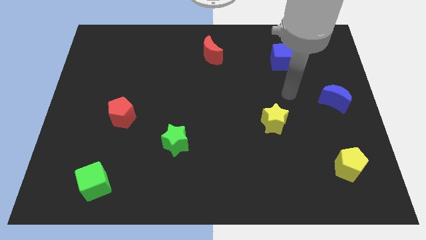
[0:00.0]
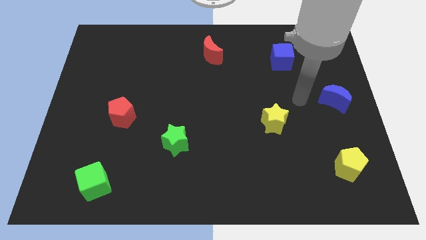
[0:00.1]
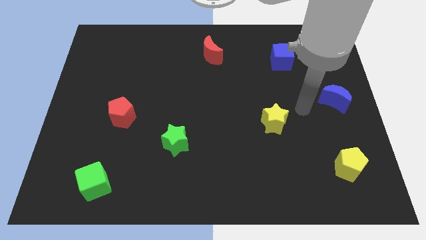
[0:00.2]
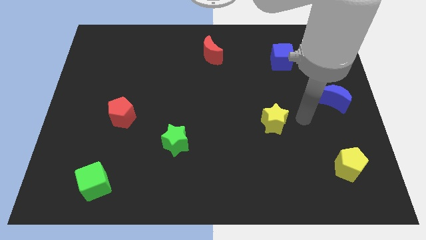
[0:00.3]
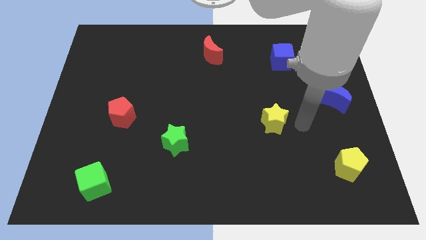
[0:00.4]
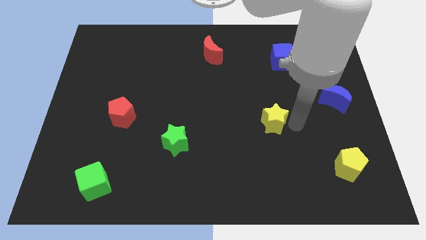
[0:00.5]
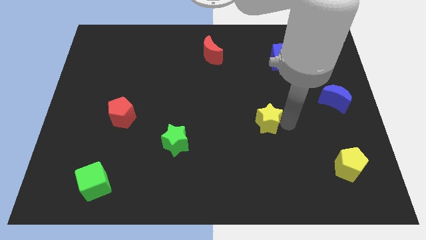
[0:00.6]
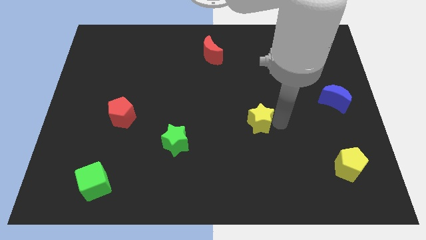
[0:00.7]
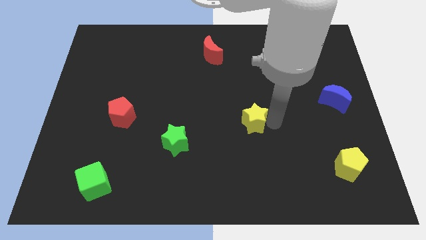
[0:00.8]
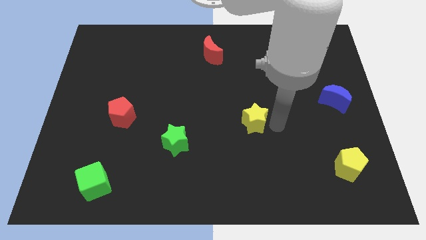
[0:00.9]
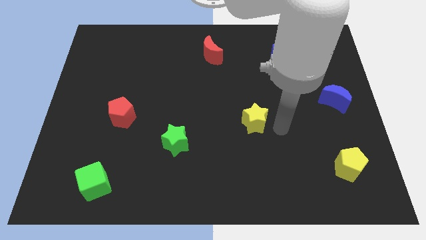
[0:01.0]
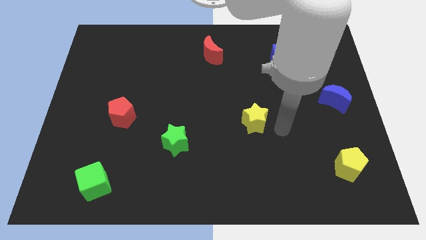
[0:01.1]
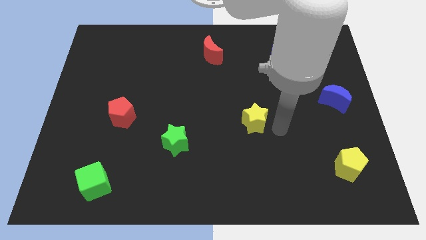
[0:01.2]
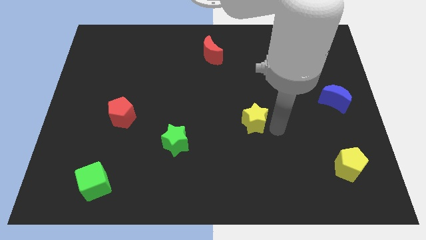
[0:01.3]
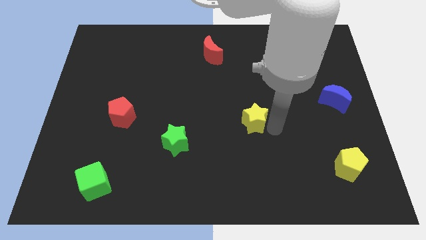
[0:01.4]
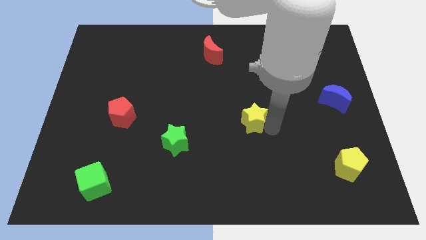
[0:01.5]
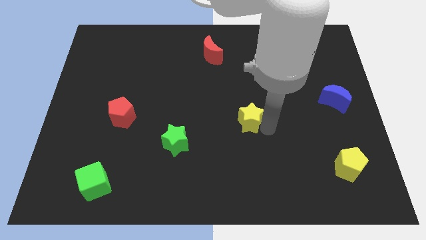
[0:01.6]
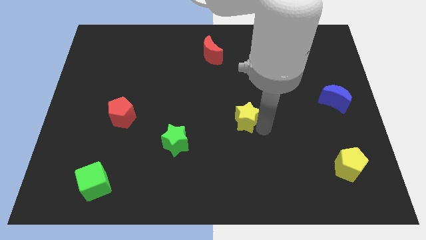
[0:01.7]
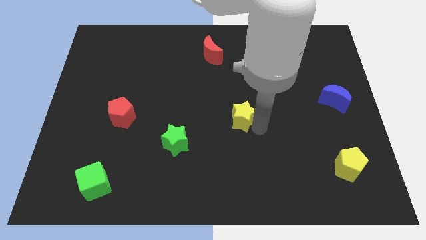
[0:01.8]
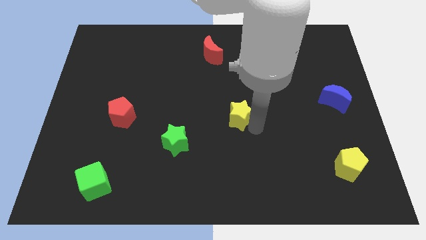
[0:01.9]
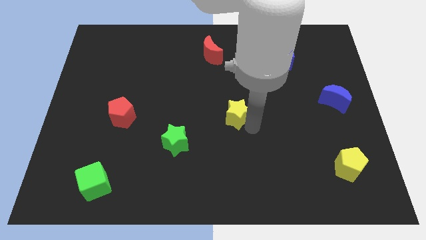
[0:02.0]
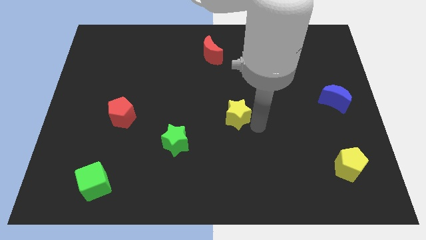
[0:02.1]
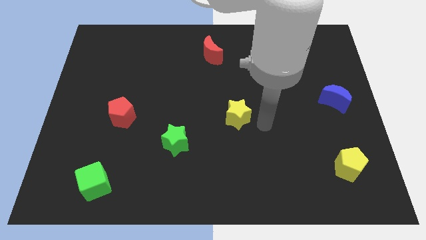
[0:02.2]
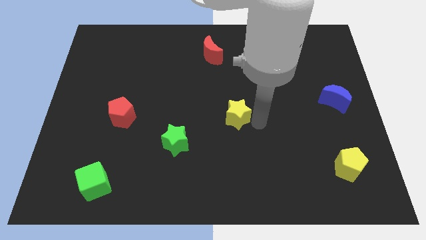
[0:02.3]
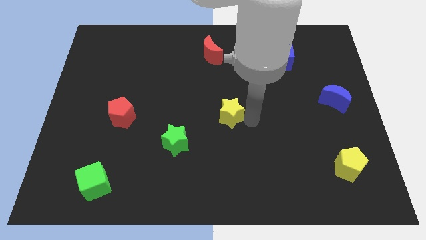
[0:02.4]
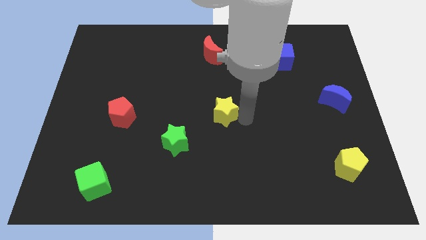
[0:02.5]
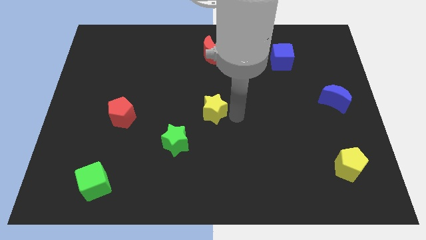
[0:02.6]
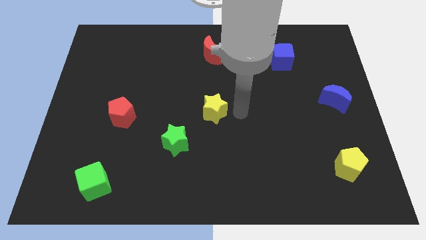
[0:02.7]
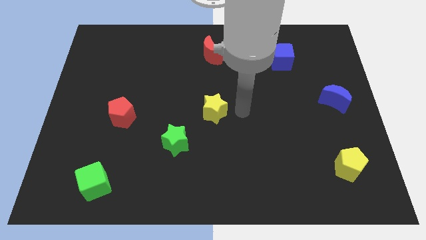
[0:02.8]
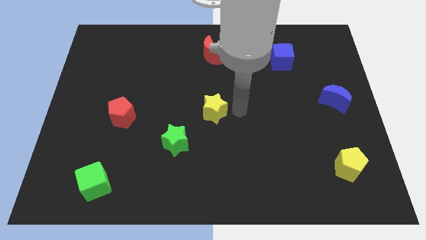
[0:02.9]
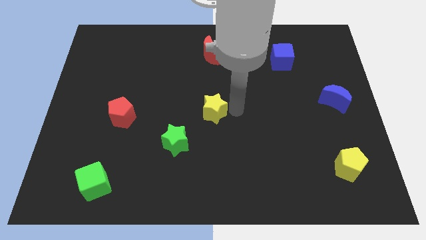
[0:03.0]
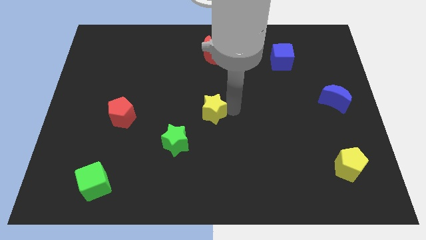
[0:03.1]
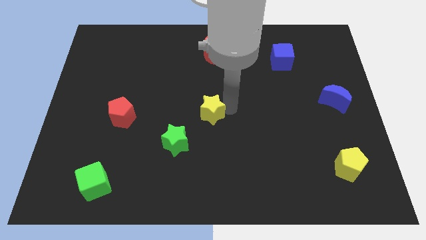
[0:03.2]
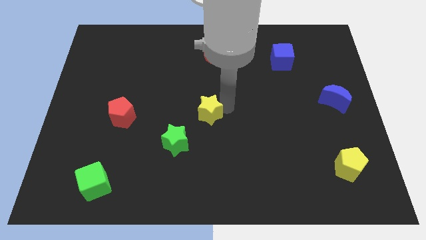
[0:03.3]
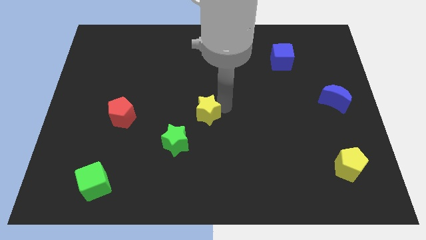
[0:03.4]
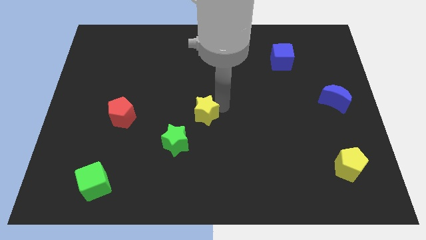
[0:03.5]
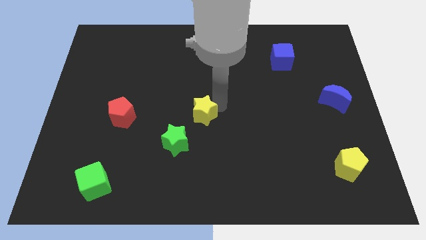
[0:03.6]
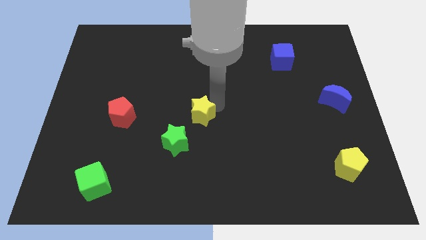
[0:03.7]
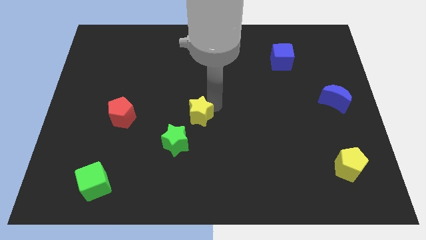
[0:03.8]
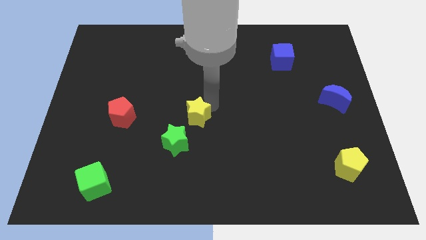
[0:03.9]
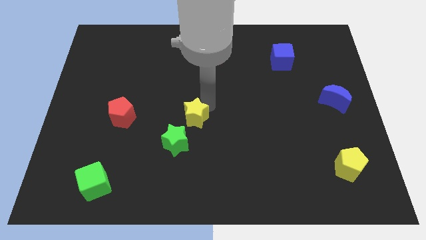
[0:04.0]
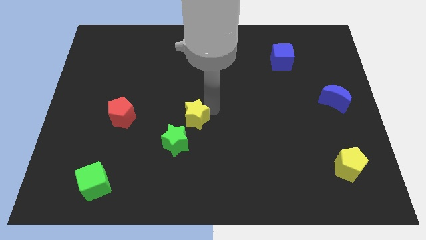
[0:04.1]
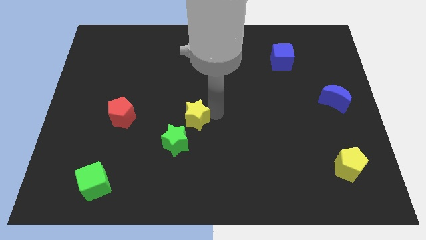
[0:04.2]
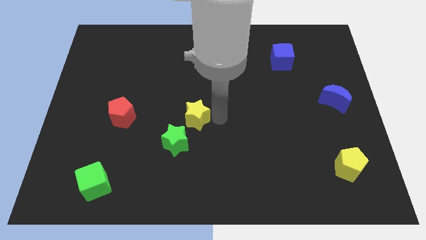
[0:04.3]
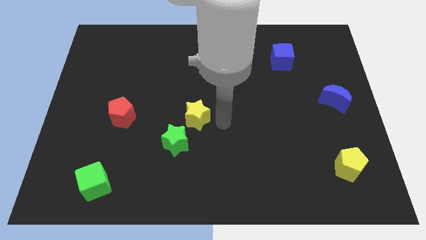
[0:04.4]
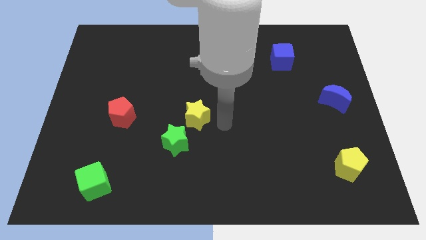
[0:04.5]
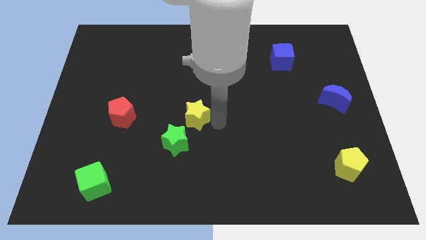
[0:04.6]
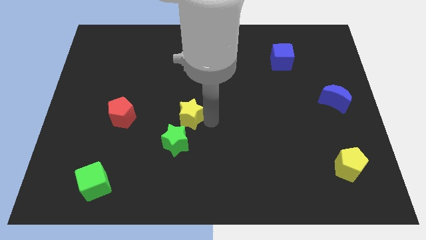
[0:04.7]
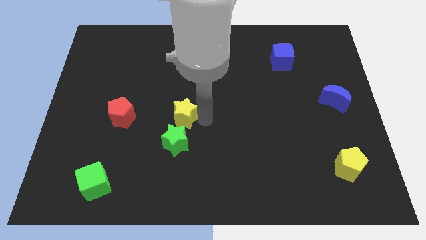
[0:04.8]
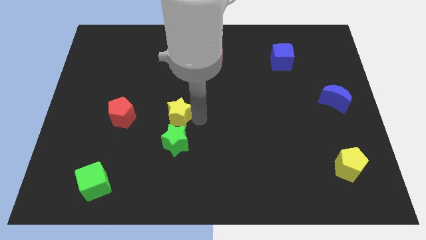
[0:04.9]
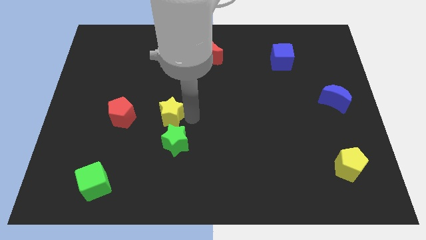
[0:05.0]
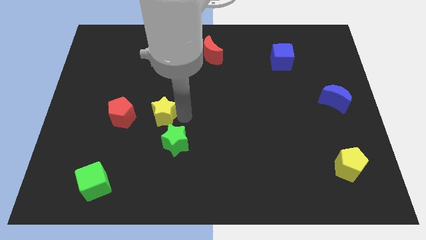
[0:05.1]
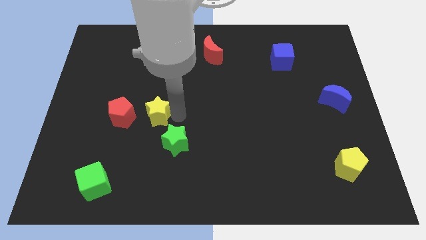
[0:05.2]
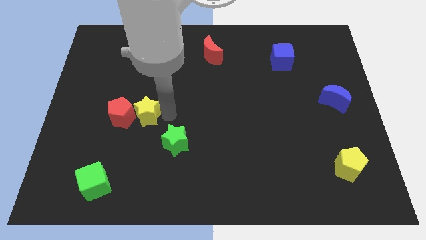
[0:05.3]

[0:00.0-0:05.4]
move the yellow star towards the red pentagon

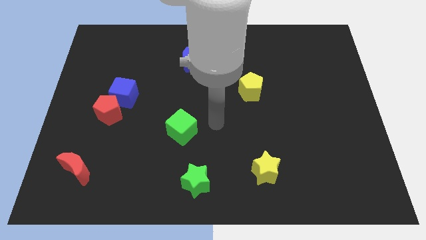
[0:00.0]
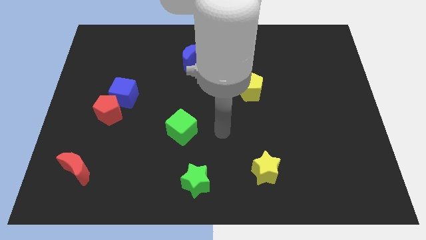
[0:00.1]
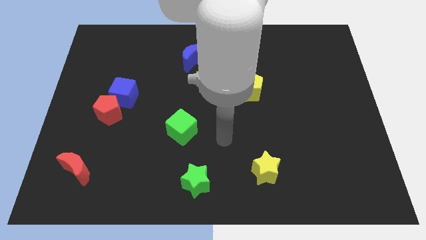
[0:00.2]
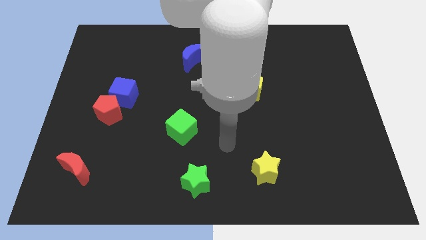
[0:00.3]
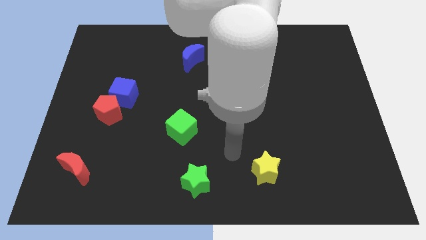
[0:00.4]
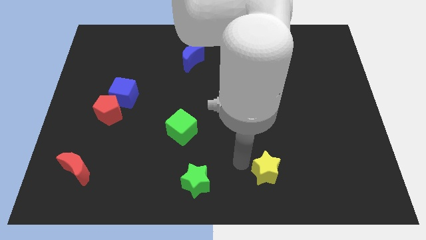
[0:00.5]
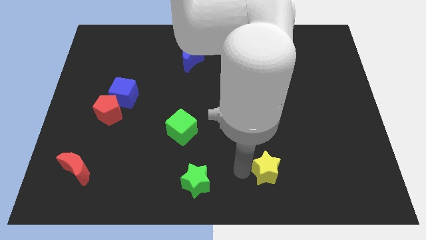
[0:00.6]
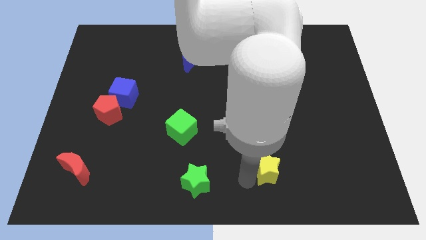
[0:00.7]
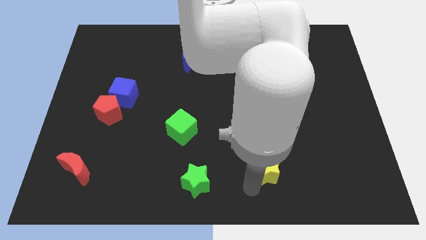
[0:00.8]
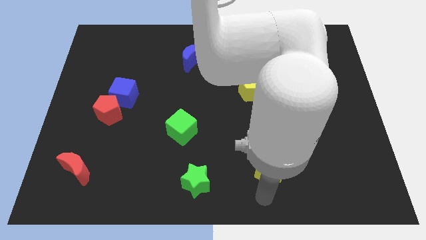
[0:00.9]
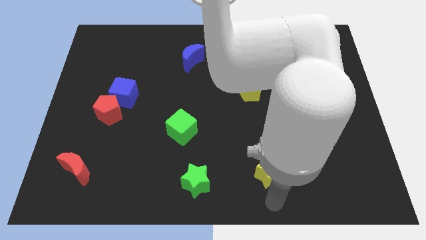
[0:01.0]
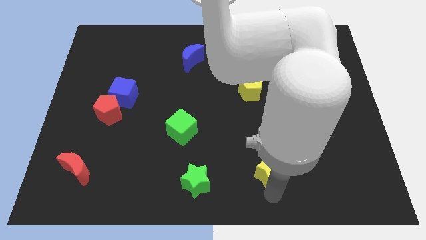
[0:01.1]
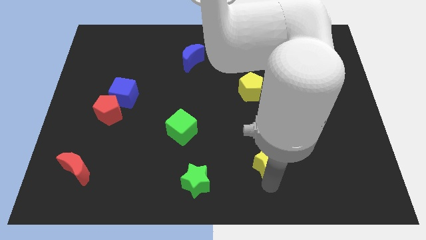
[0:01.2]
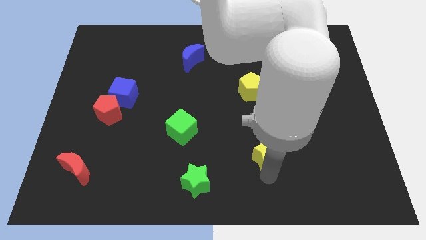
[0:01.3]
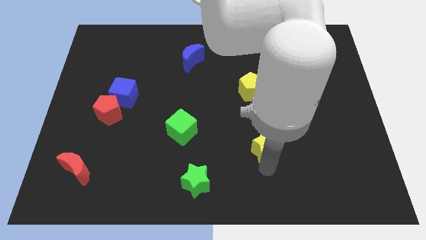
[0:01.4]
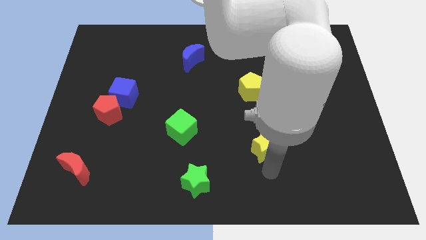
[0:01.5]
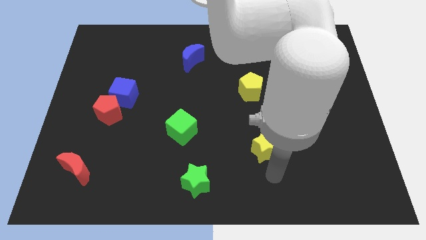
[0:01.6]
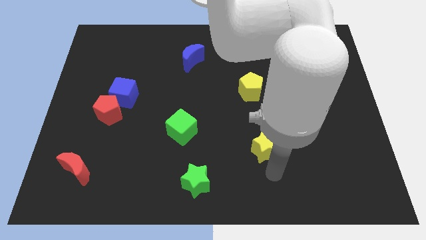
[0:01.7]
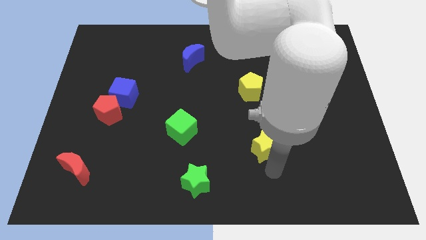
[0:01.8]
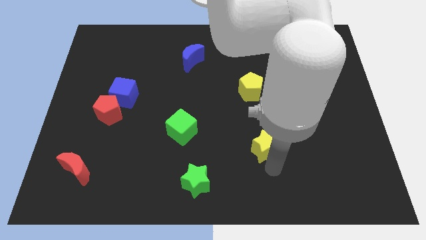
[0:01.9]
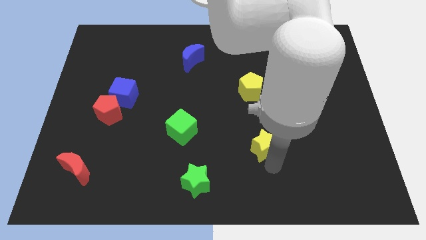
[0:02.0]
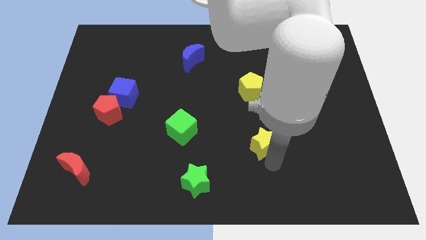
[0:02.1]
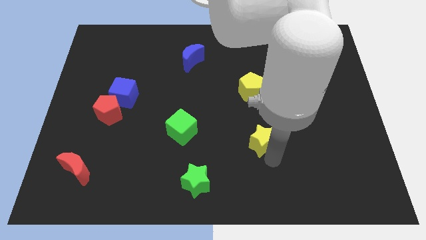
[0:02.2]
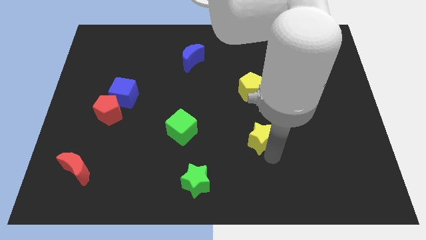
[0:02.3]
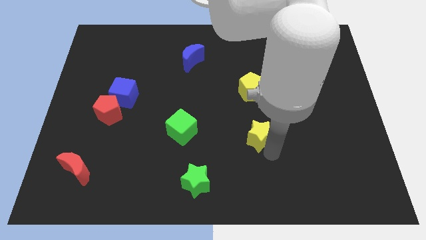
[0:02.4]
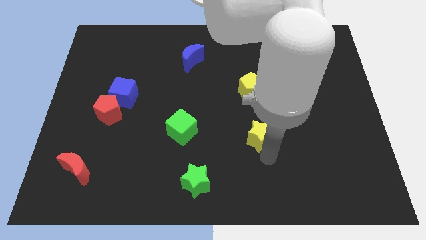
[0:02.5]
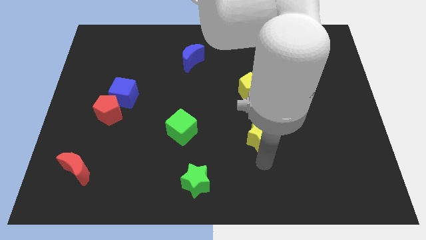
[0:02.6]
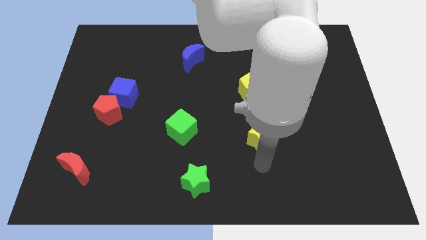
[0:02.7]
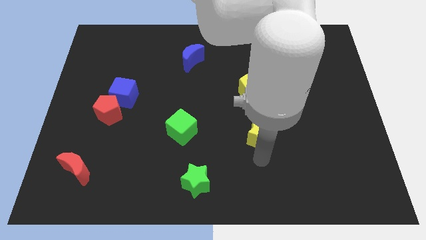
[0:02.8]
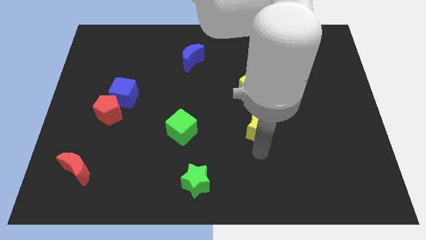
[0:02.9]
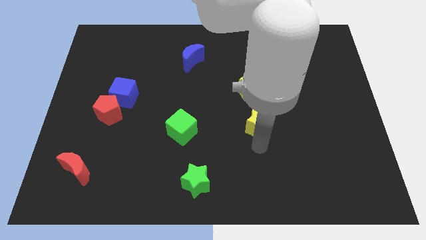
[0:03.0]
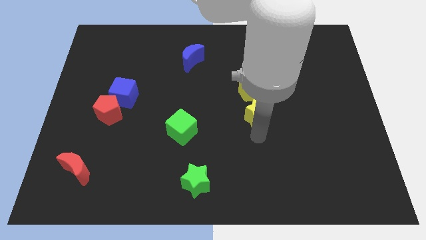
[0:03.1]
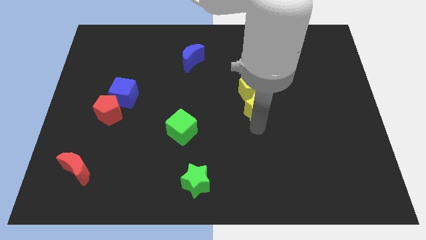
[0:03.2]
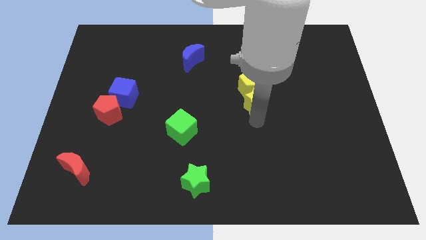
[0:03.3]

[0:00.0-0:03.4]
slide the yellow star to the yellow pentagon
